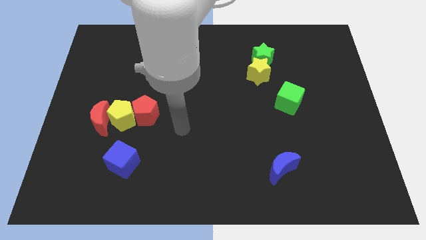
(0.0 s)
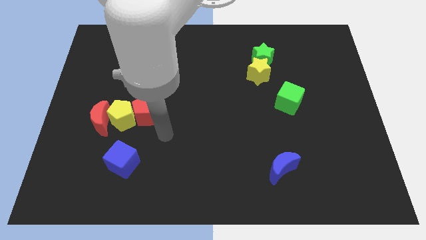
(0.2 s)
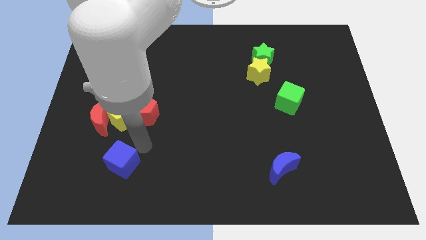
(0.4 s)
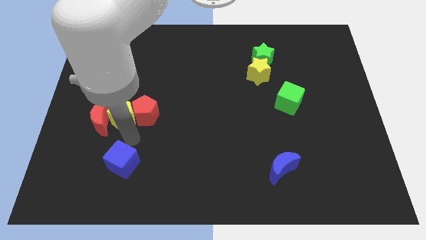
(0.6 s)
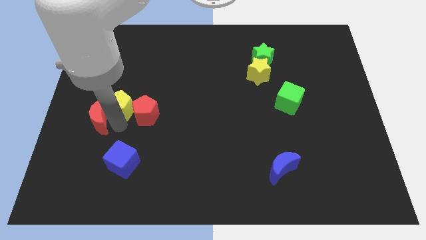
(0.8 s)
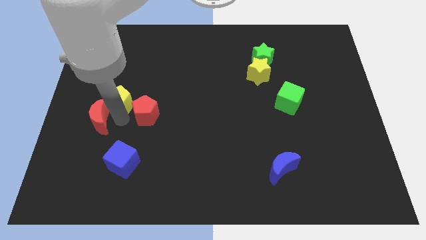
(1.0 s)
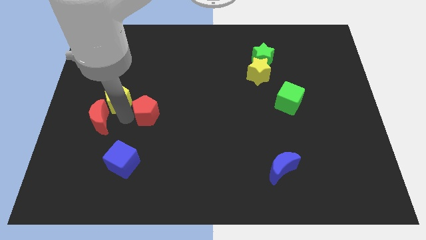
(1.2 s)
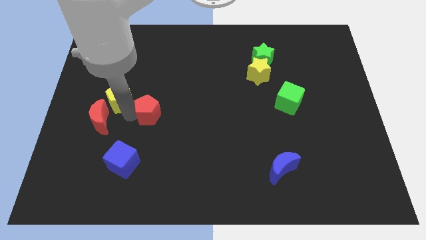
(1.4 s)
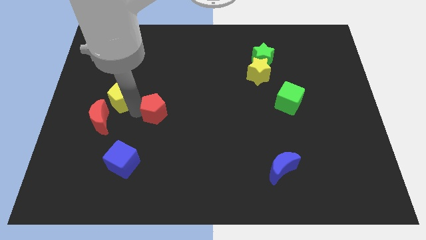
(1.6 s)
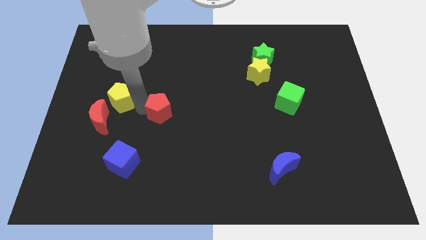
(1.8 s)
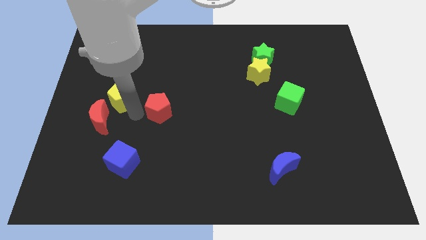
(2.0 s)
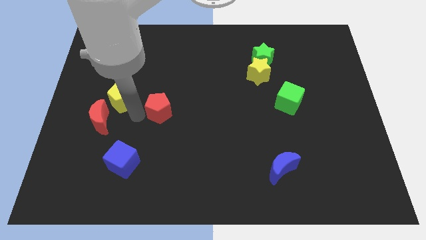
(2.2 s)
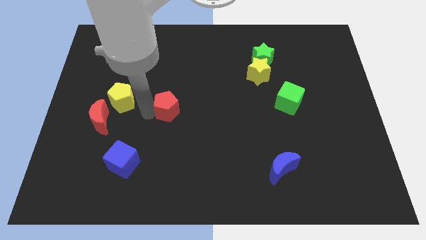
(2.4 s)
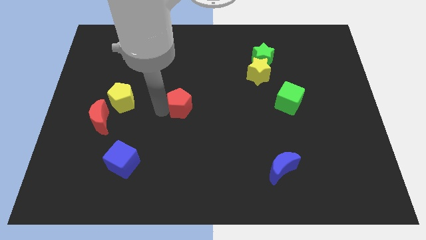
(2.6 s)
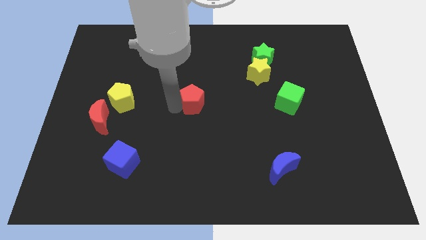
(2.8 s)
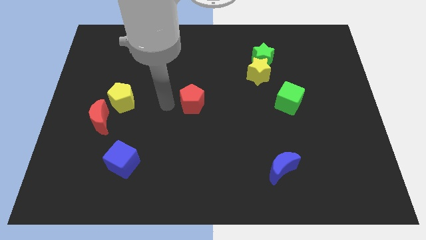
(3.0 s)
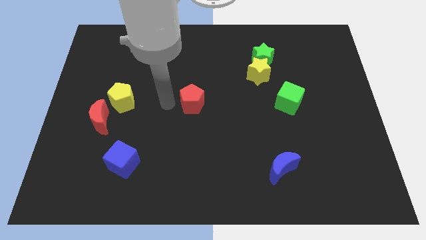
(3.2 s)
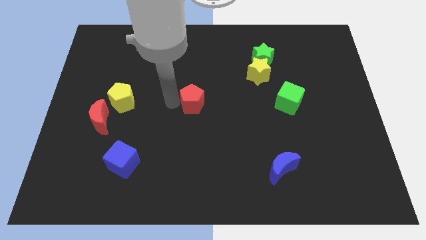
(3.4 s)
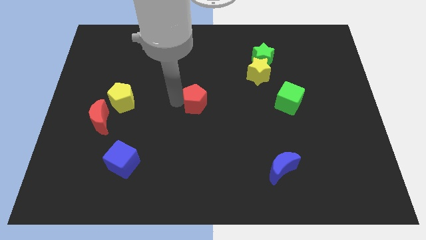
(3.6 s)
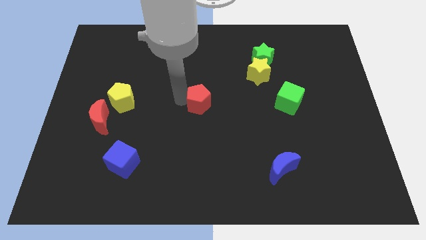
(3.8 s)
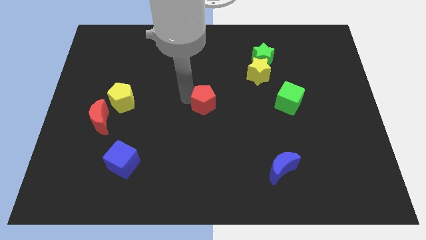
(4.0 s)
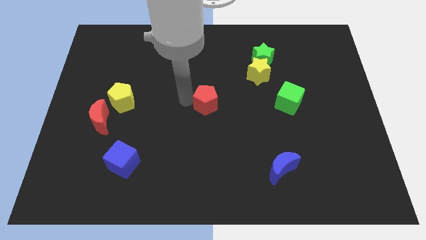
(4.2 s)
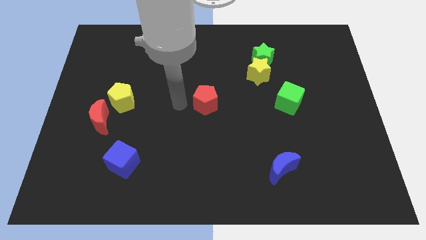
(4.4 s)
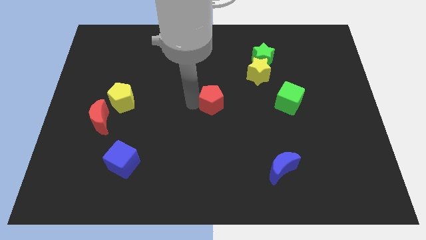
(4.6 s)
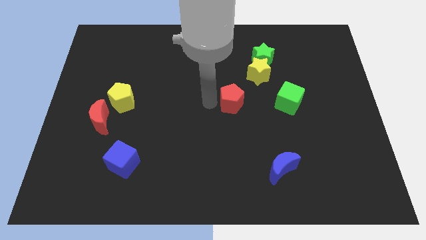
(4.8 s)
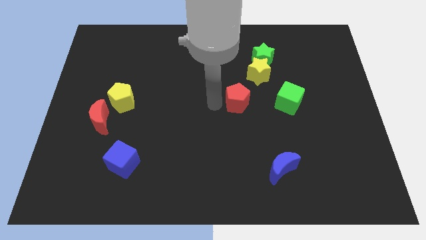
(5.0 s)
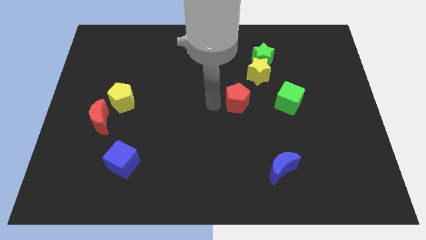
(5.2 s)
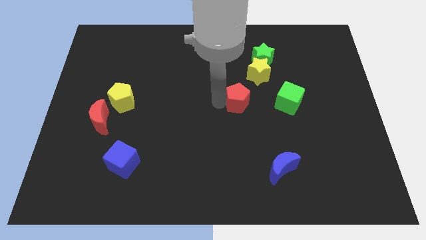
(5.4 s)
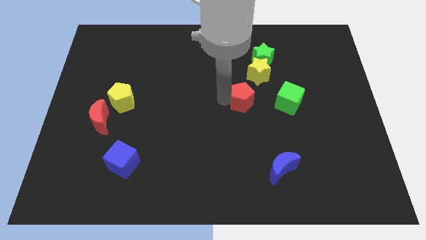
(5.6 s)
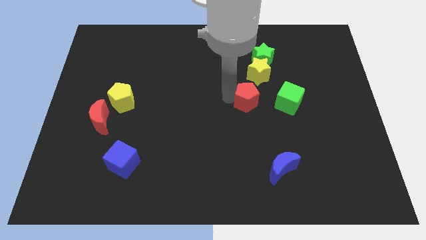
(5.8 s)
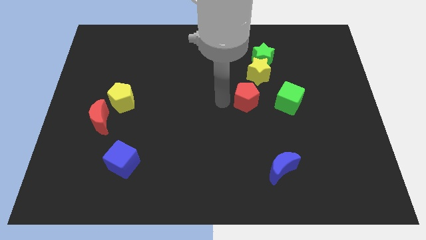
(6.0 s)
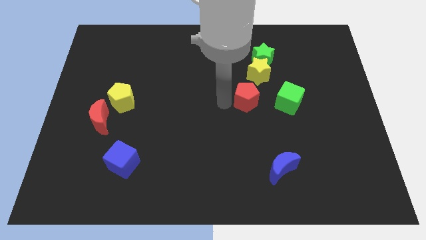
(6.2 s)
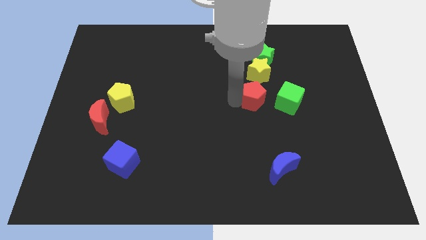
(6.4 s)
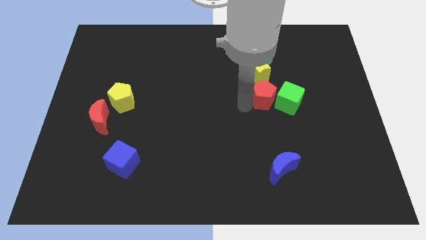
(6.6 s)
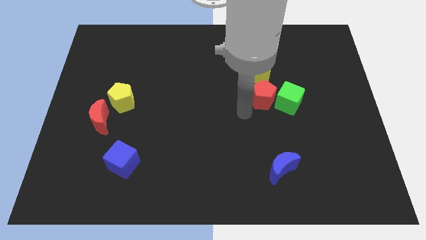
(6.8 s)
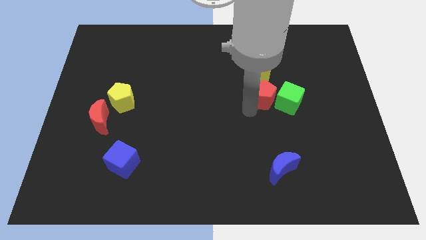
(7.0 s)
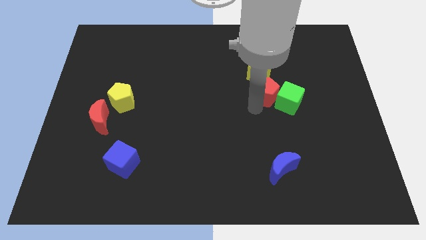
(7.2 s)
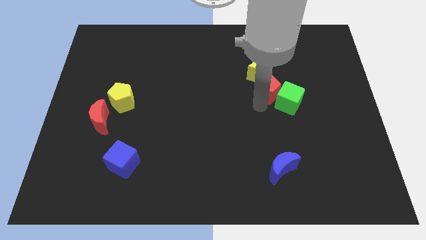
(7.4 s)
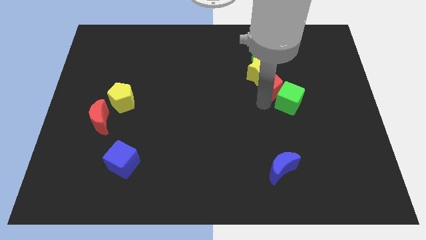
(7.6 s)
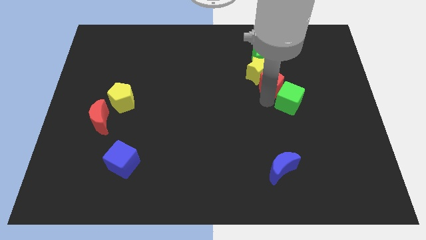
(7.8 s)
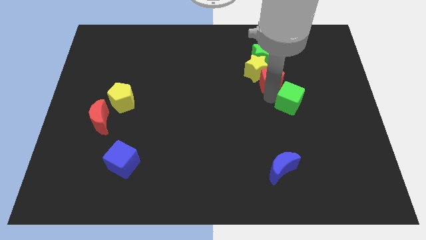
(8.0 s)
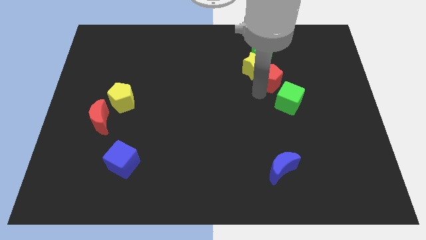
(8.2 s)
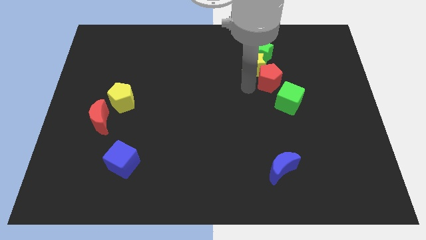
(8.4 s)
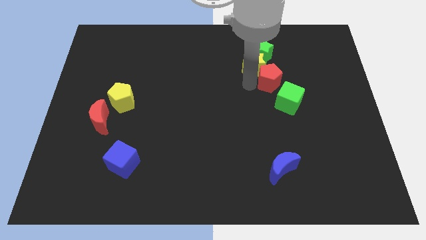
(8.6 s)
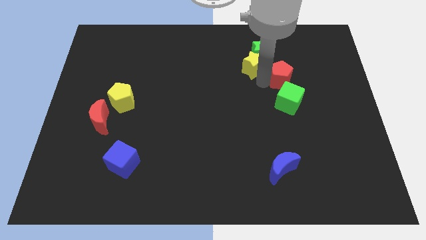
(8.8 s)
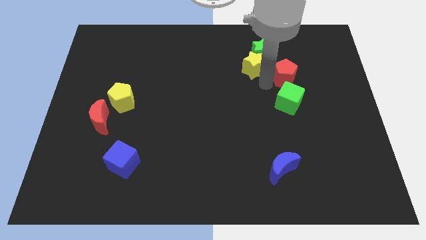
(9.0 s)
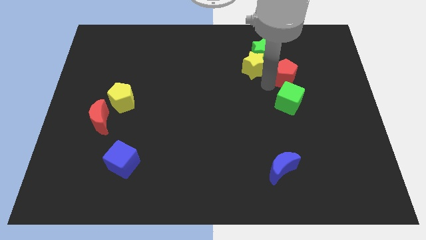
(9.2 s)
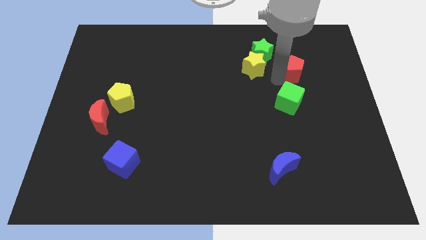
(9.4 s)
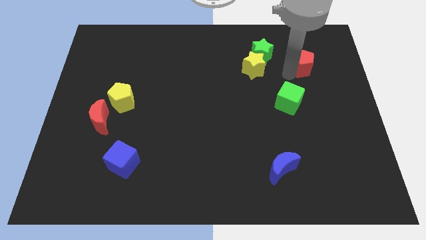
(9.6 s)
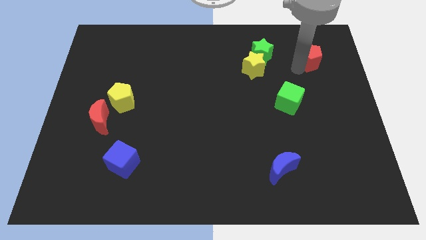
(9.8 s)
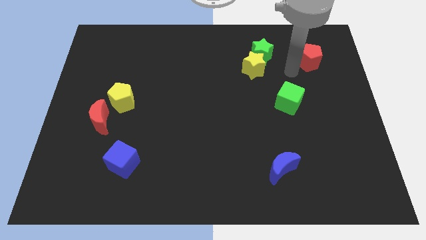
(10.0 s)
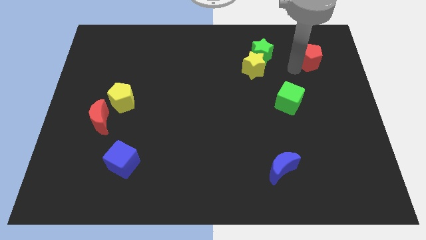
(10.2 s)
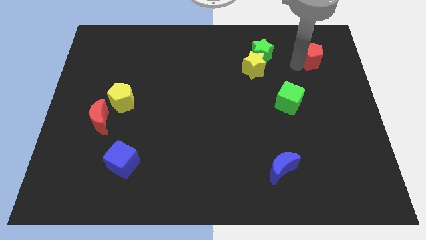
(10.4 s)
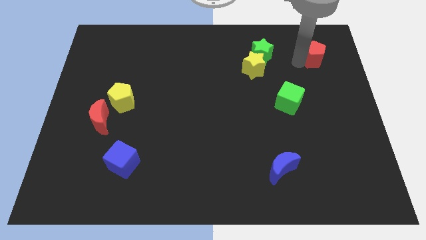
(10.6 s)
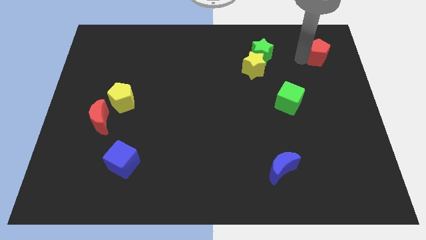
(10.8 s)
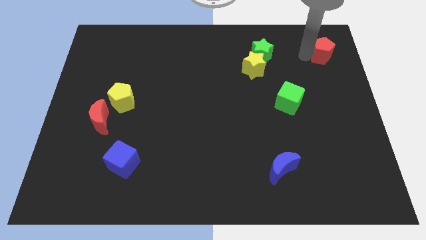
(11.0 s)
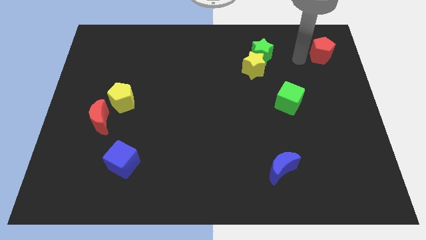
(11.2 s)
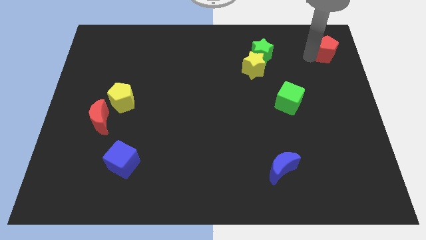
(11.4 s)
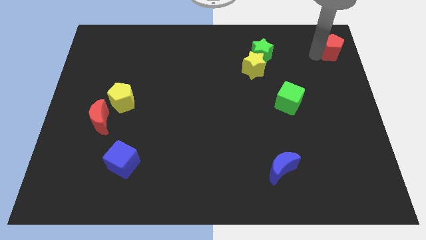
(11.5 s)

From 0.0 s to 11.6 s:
push the red pentagon to the top right corner

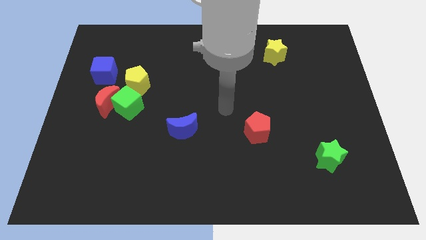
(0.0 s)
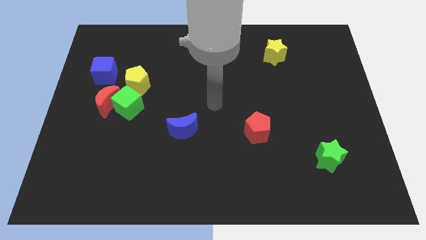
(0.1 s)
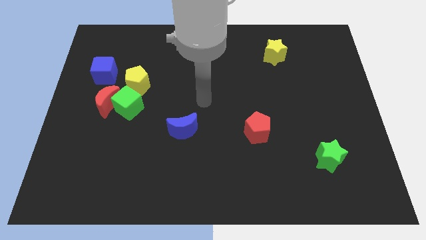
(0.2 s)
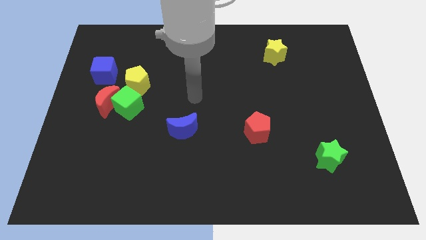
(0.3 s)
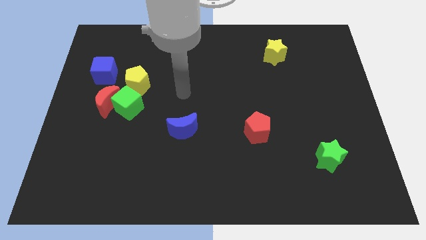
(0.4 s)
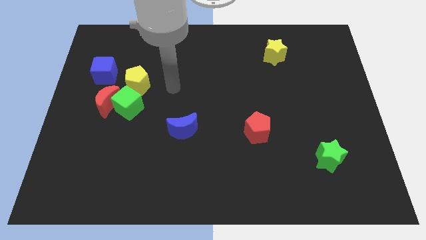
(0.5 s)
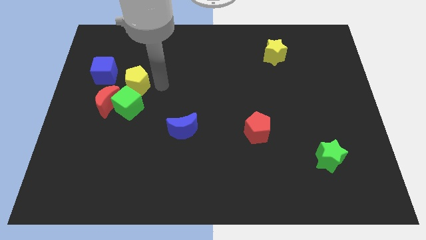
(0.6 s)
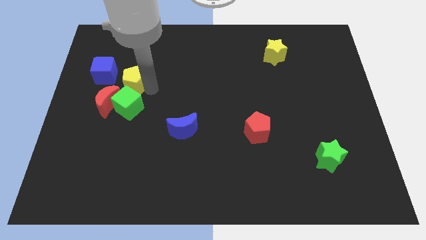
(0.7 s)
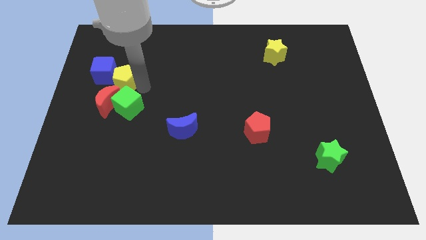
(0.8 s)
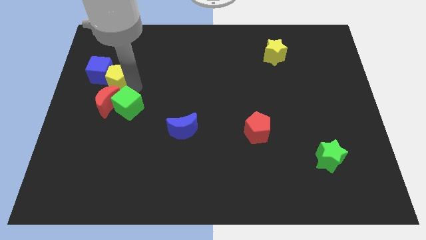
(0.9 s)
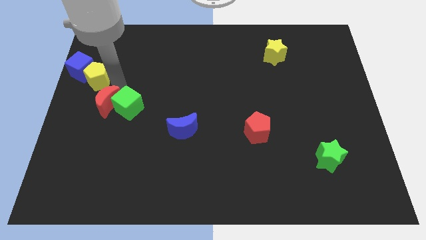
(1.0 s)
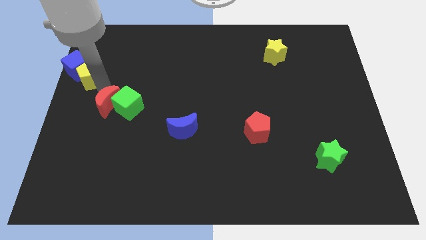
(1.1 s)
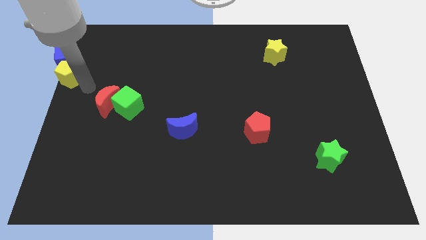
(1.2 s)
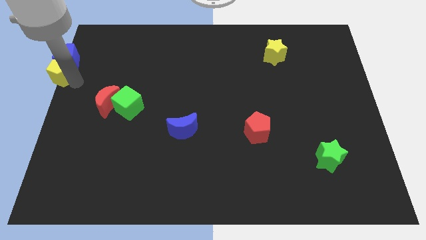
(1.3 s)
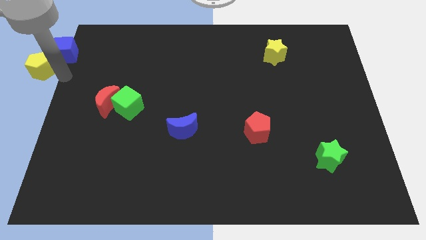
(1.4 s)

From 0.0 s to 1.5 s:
put the blue cube to the top left
